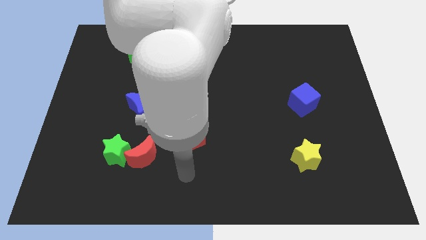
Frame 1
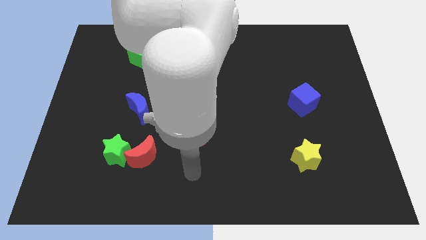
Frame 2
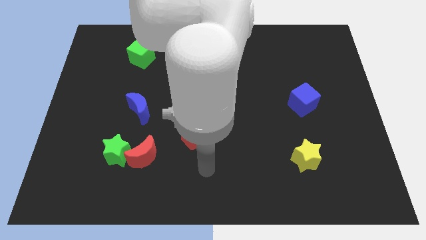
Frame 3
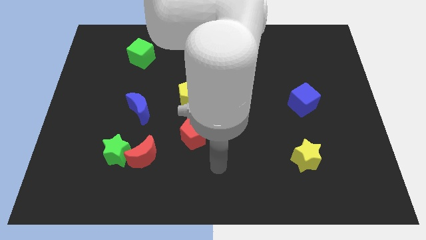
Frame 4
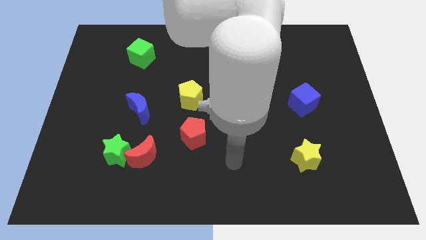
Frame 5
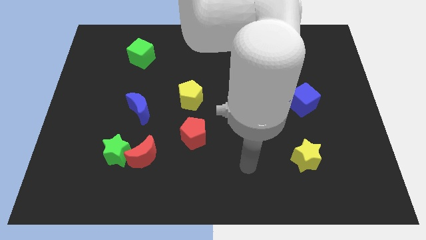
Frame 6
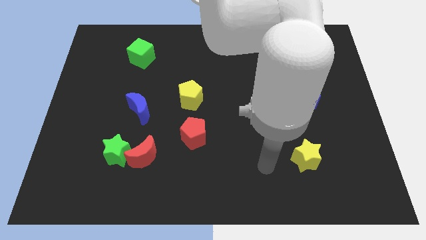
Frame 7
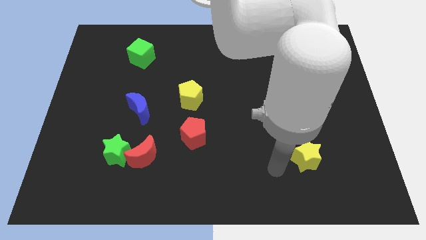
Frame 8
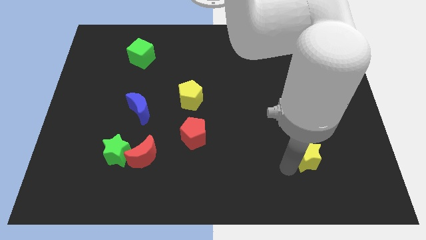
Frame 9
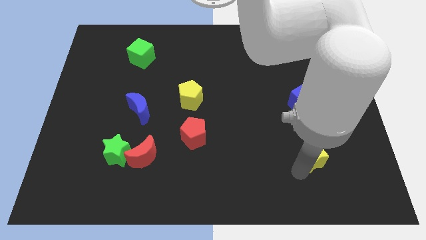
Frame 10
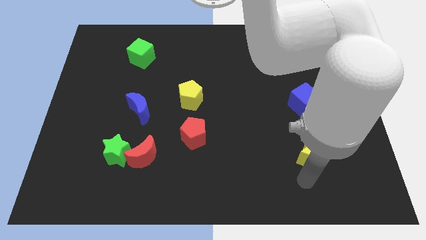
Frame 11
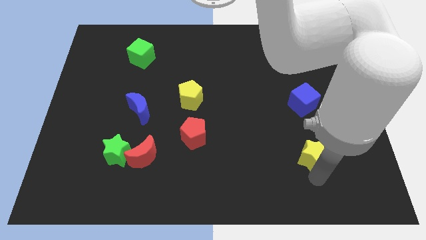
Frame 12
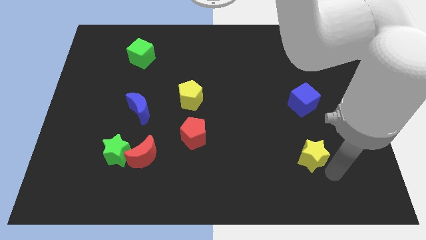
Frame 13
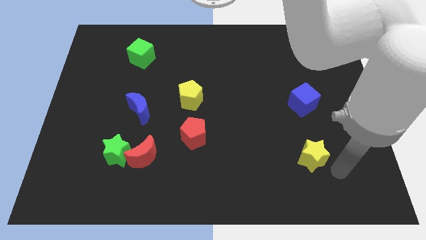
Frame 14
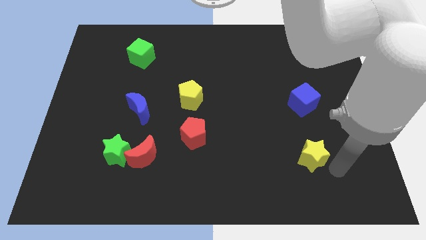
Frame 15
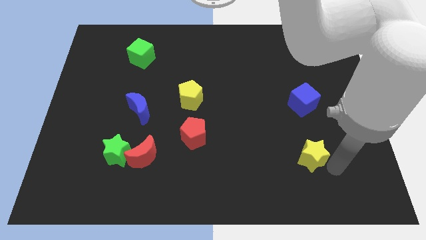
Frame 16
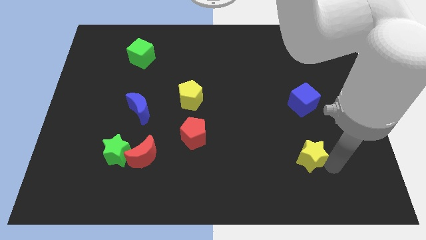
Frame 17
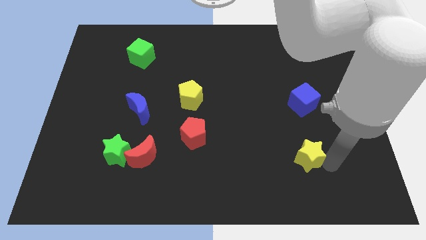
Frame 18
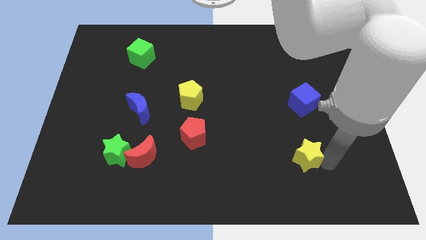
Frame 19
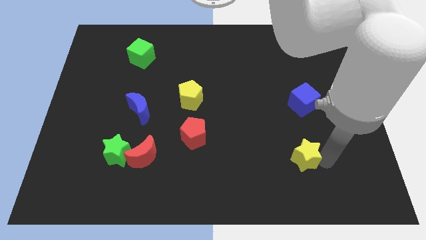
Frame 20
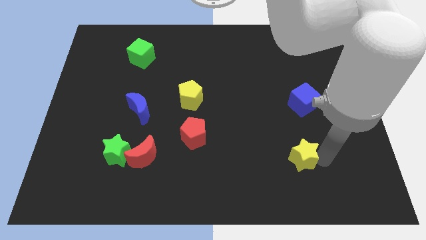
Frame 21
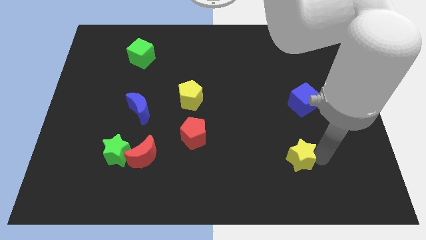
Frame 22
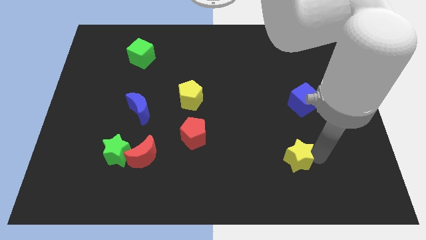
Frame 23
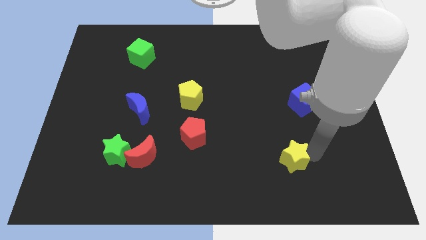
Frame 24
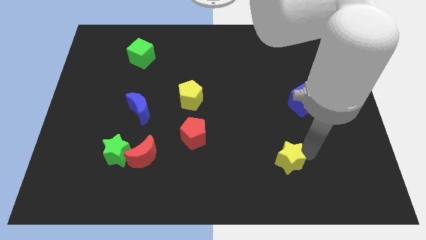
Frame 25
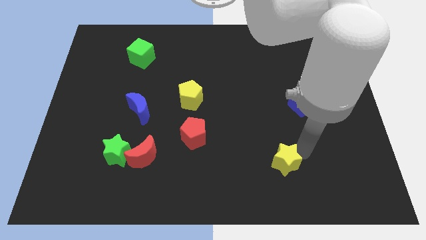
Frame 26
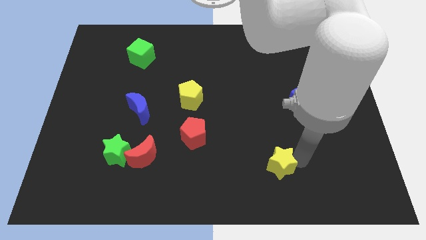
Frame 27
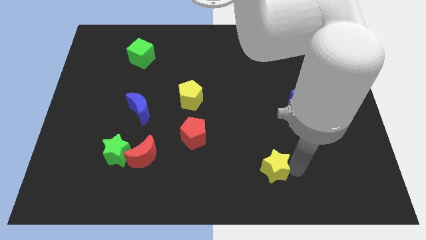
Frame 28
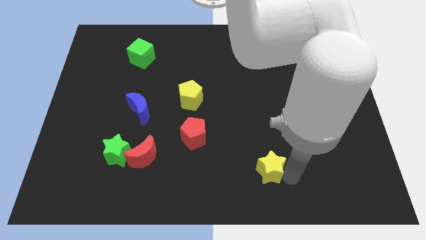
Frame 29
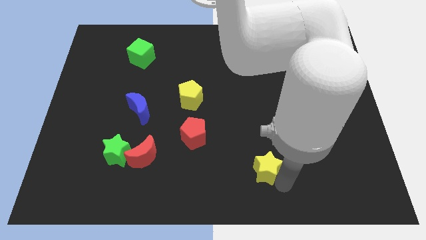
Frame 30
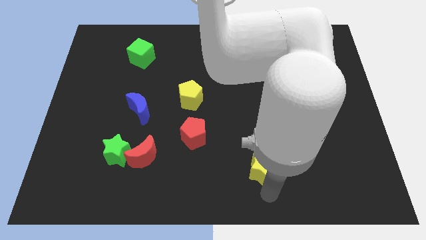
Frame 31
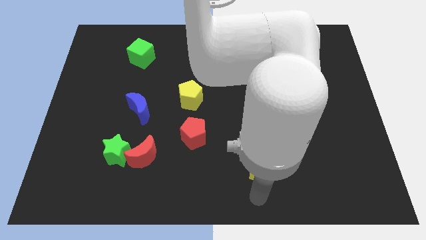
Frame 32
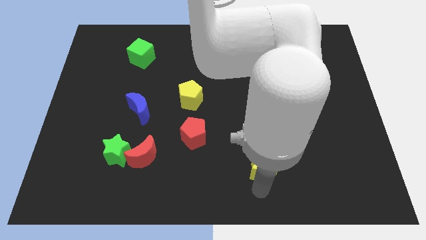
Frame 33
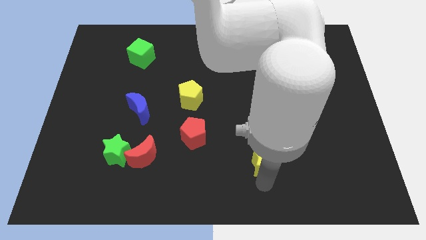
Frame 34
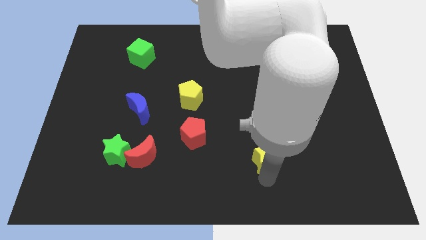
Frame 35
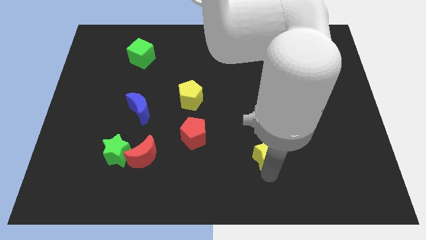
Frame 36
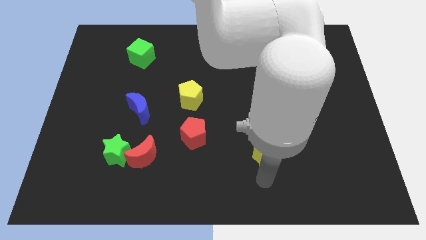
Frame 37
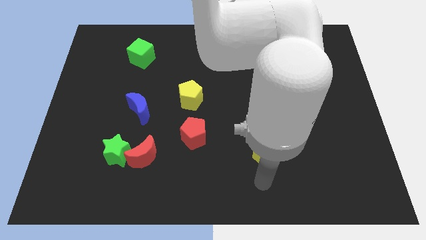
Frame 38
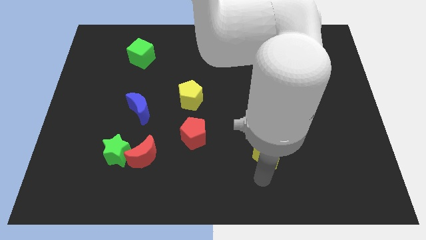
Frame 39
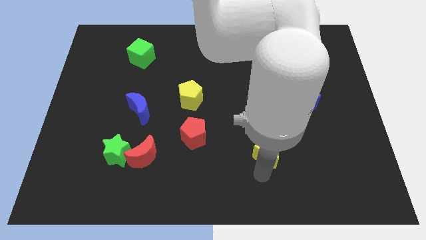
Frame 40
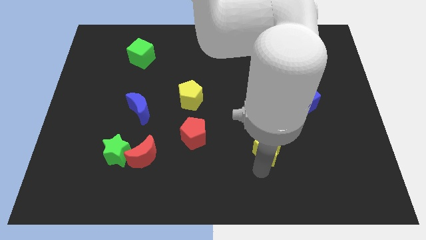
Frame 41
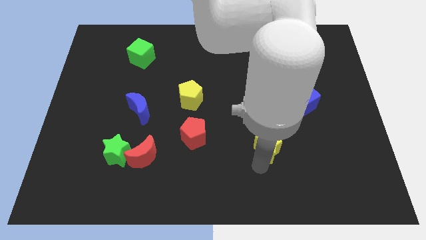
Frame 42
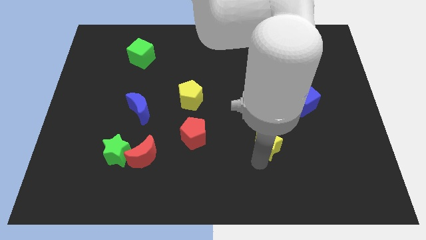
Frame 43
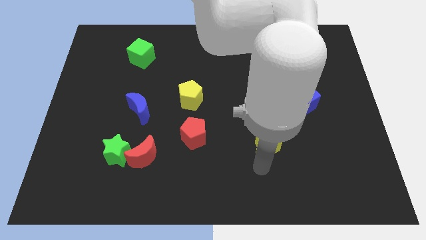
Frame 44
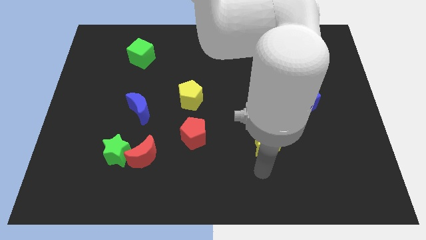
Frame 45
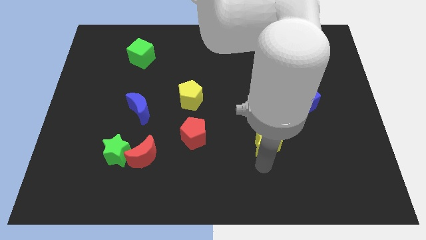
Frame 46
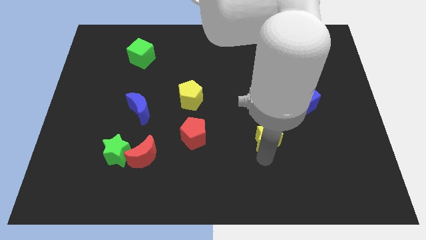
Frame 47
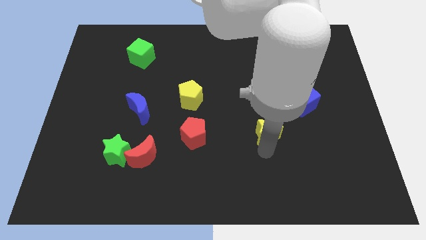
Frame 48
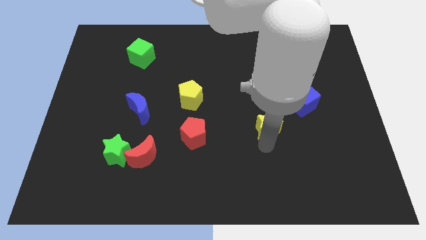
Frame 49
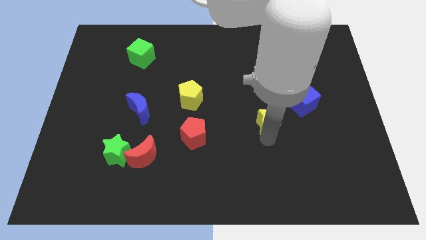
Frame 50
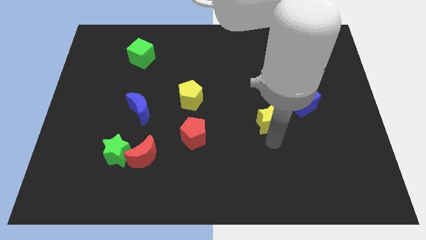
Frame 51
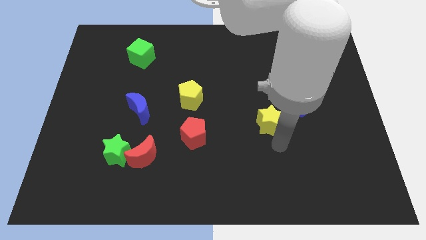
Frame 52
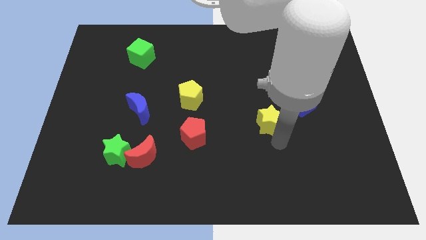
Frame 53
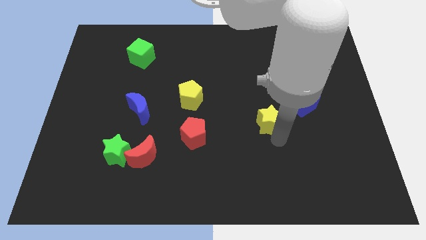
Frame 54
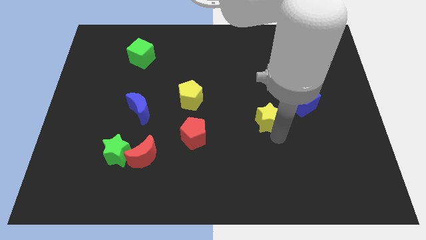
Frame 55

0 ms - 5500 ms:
push the yellow star left of the blue cube

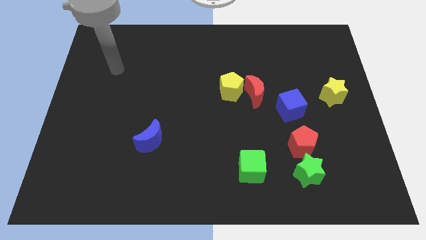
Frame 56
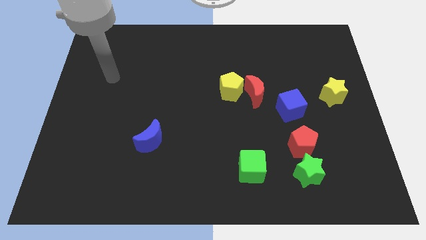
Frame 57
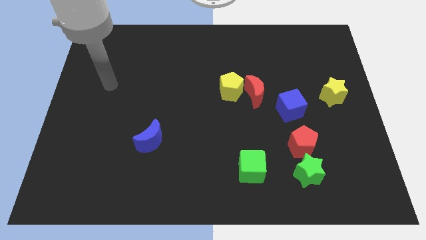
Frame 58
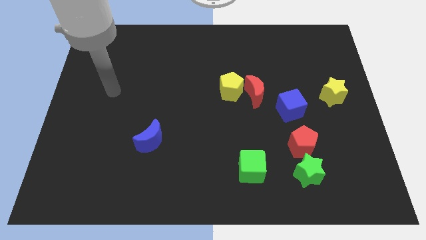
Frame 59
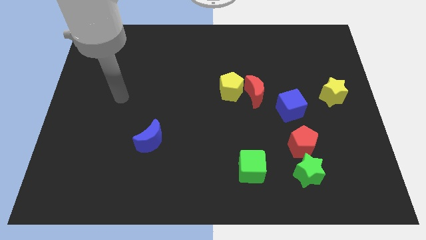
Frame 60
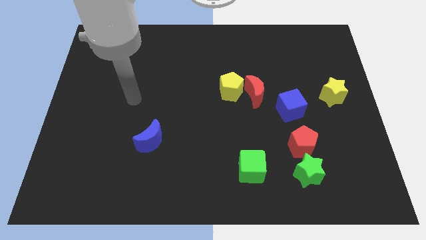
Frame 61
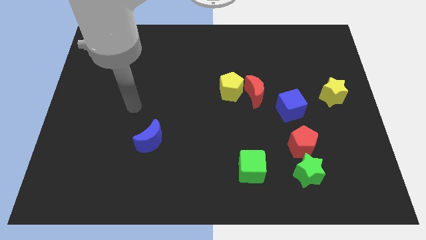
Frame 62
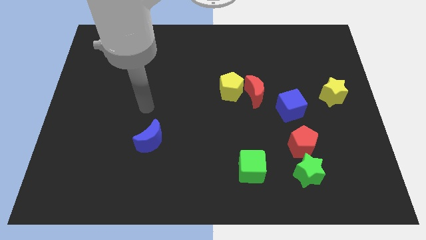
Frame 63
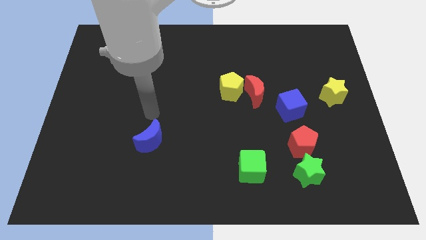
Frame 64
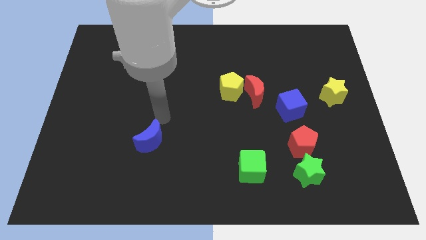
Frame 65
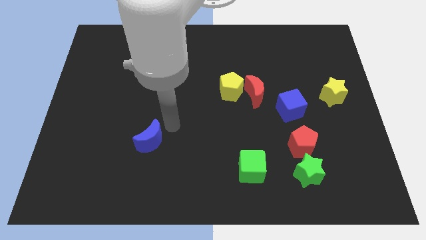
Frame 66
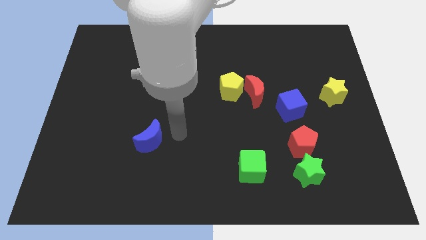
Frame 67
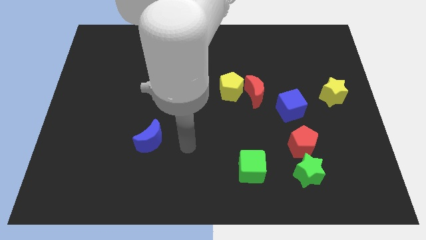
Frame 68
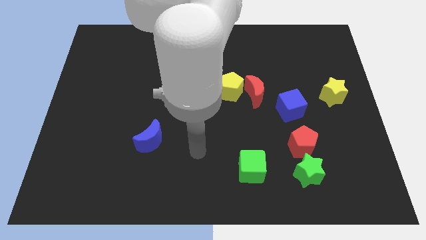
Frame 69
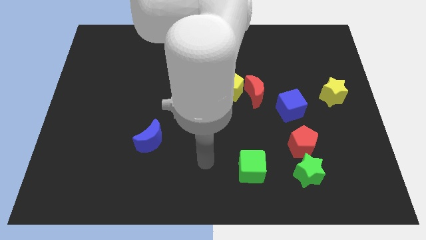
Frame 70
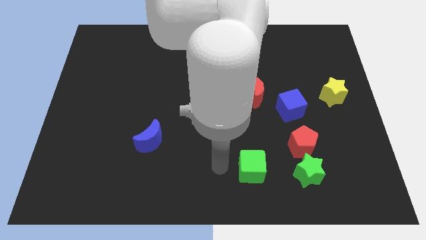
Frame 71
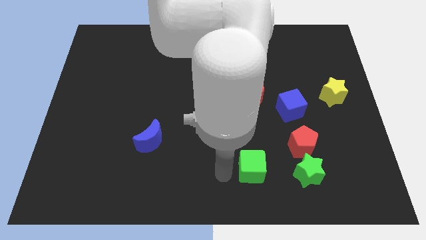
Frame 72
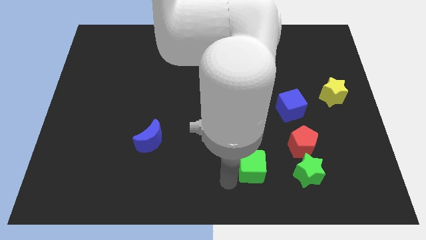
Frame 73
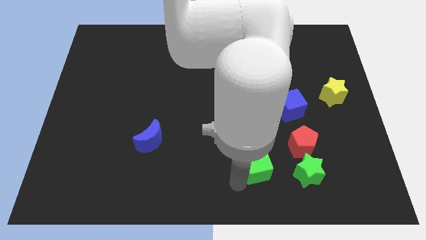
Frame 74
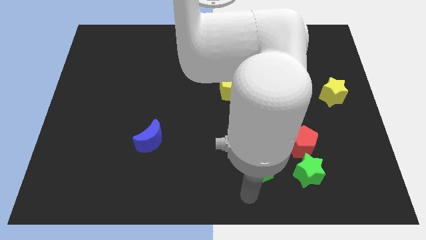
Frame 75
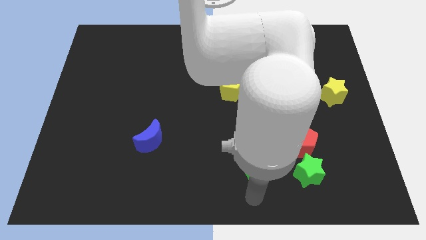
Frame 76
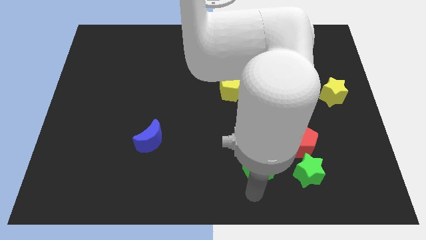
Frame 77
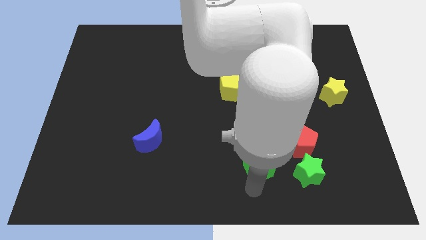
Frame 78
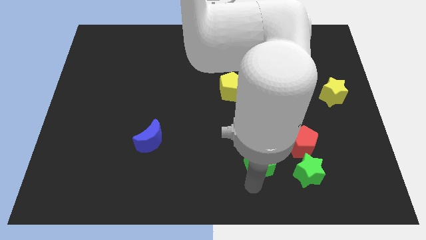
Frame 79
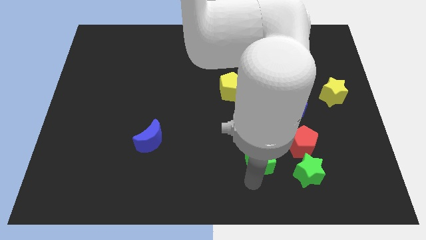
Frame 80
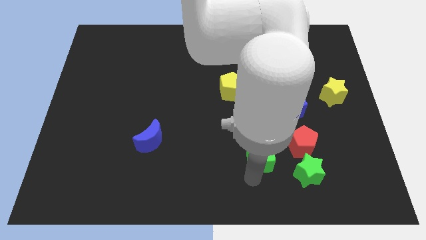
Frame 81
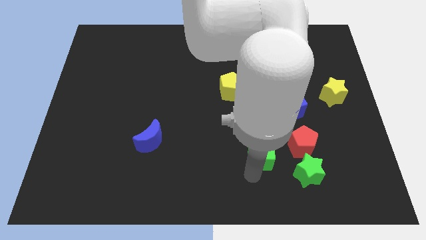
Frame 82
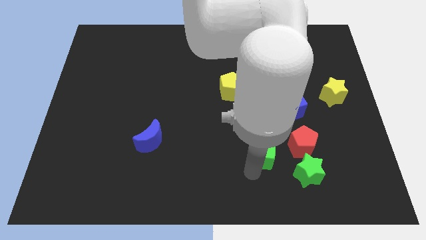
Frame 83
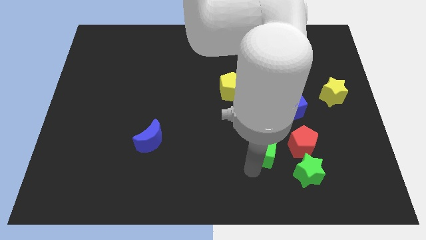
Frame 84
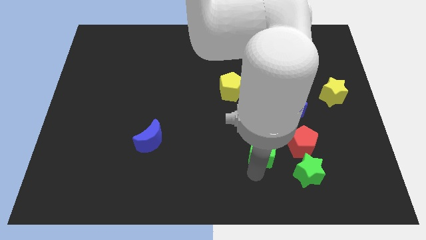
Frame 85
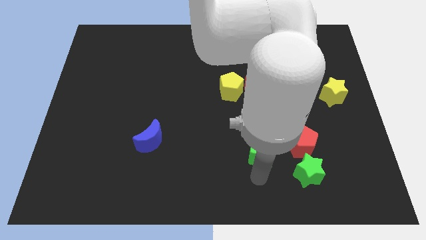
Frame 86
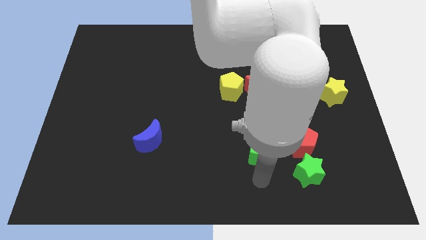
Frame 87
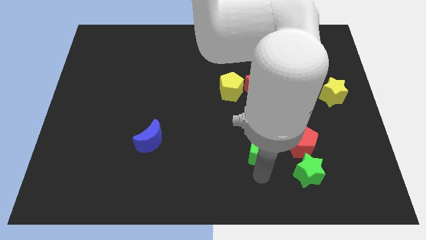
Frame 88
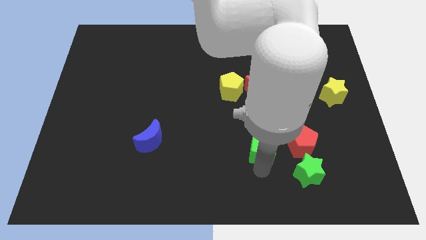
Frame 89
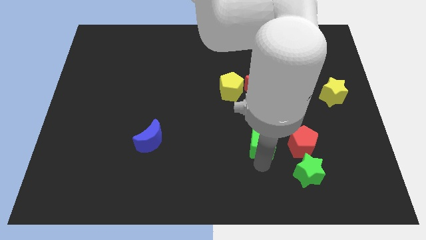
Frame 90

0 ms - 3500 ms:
push the green cube to the bottom left of the blue cube
